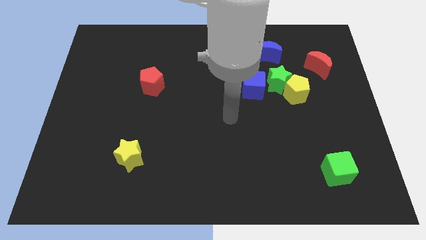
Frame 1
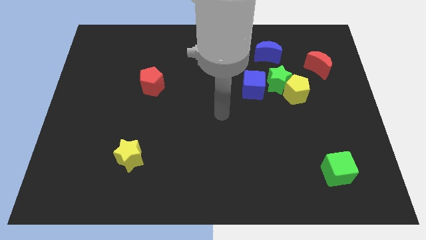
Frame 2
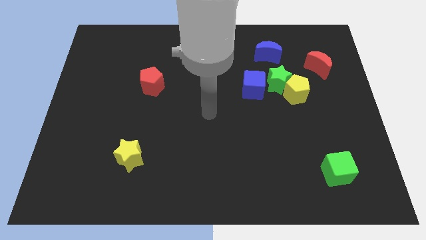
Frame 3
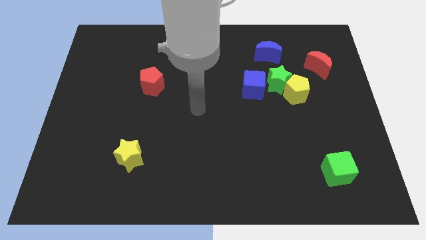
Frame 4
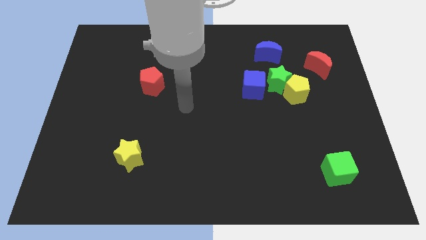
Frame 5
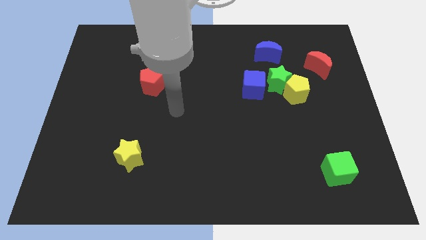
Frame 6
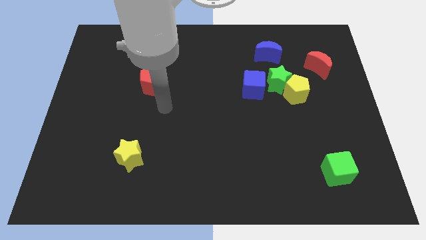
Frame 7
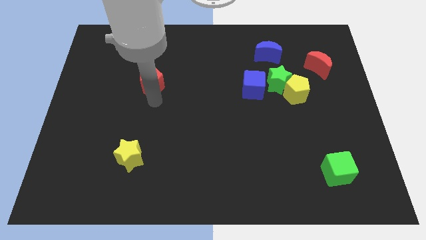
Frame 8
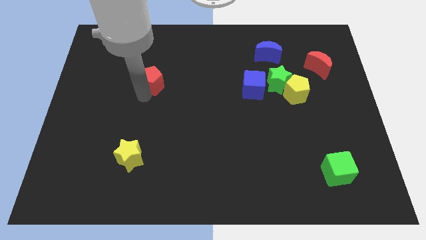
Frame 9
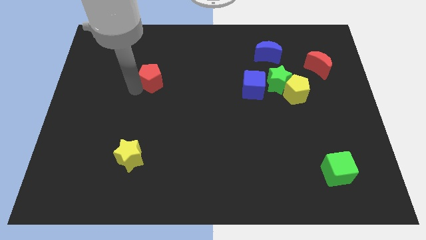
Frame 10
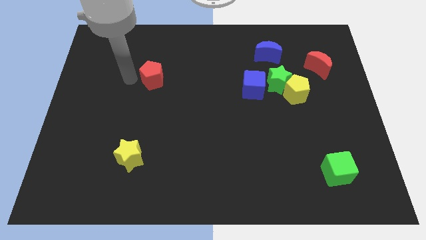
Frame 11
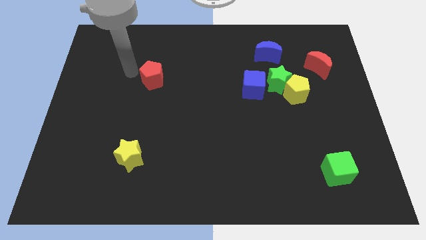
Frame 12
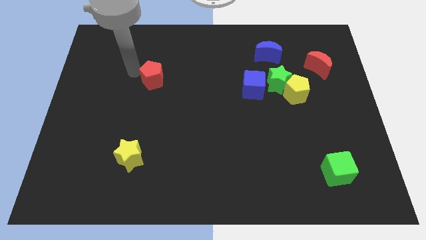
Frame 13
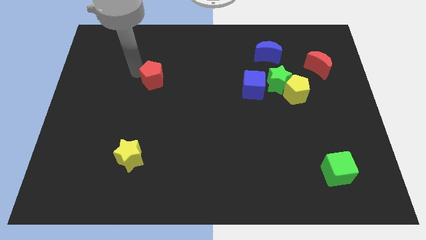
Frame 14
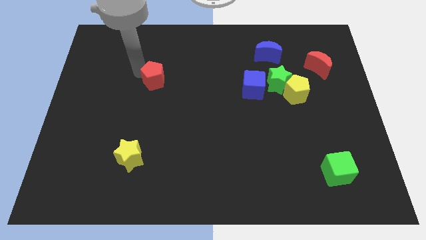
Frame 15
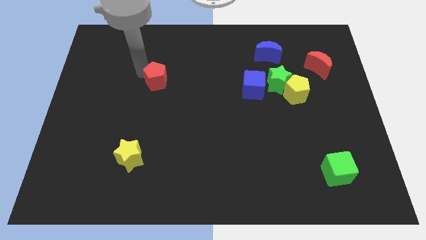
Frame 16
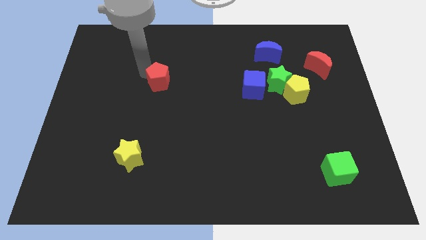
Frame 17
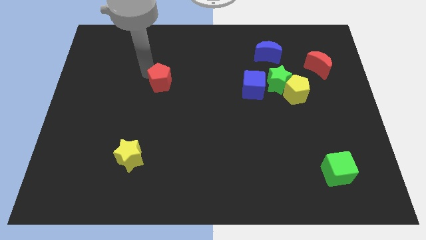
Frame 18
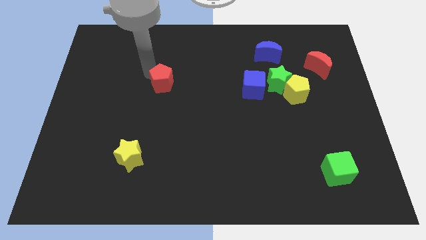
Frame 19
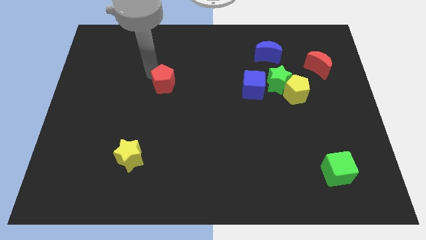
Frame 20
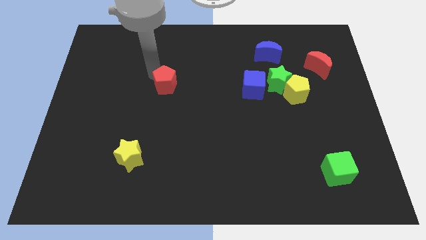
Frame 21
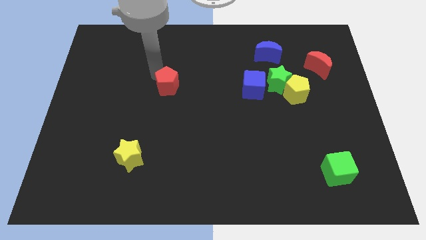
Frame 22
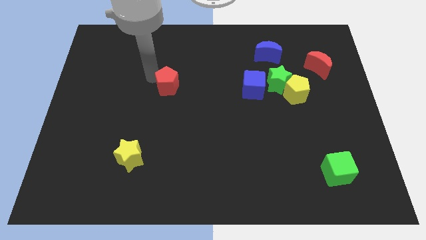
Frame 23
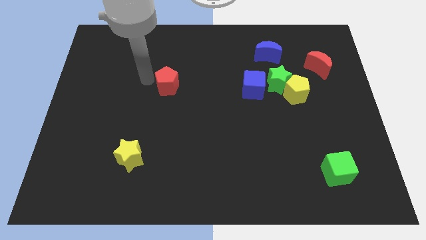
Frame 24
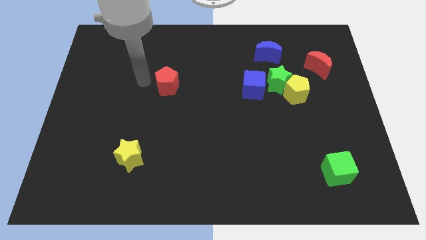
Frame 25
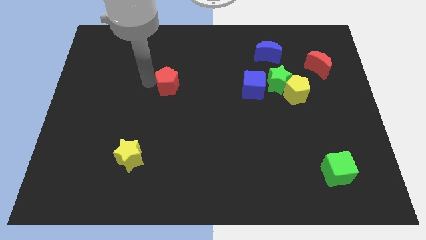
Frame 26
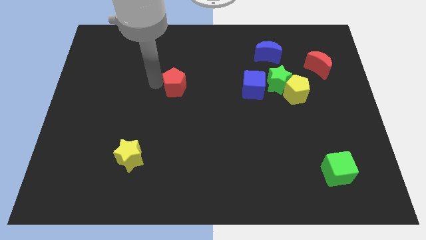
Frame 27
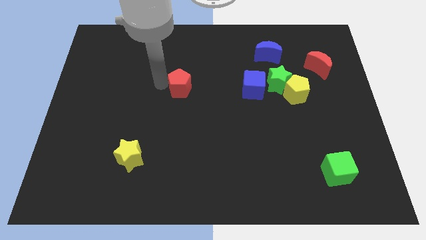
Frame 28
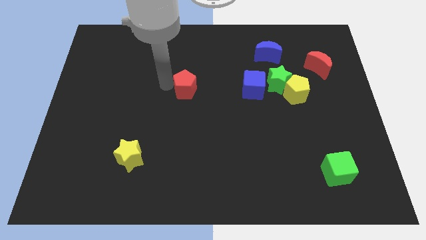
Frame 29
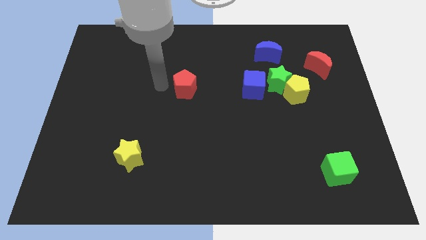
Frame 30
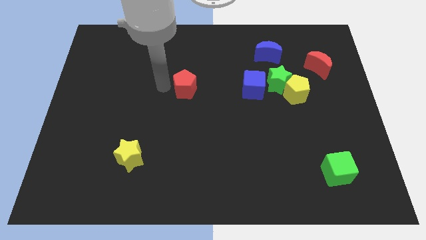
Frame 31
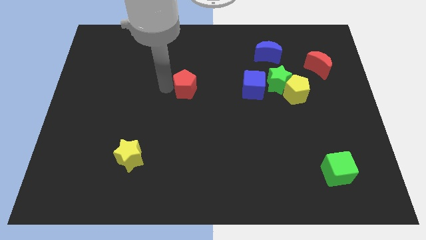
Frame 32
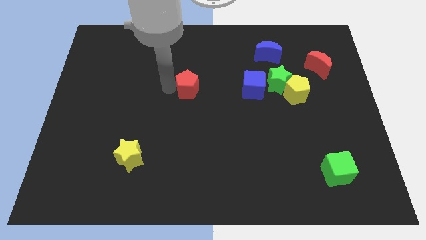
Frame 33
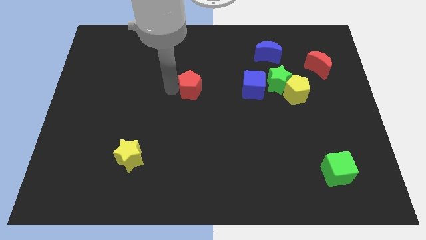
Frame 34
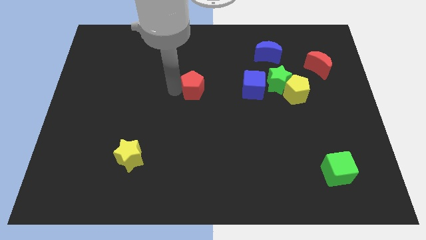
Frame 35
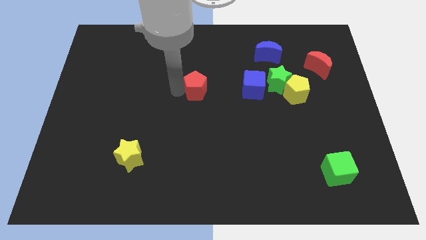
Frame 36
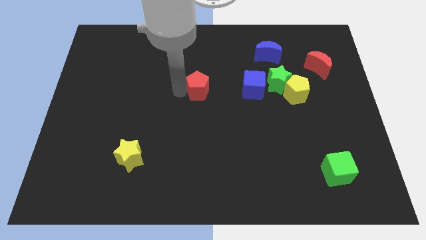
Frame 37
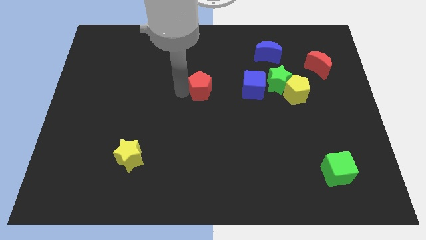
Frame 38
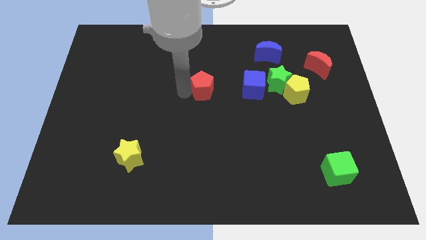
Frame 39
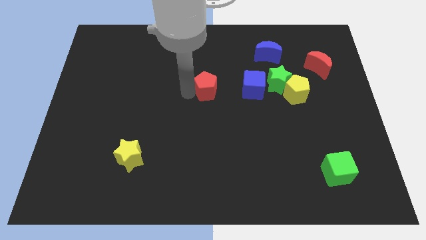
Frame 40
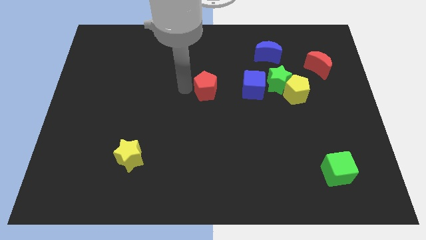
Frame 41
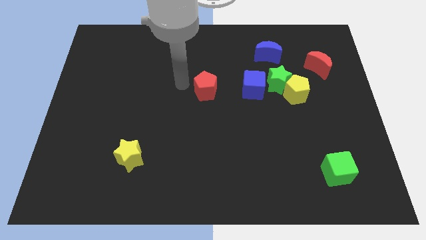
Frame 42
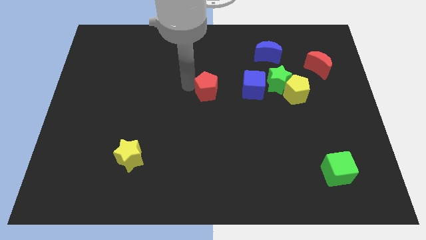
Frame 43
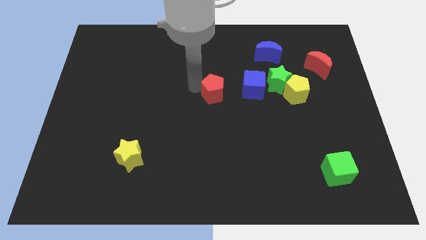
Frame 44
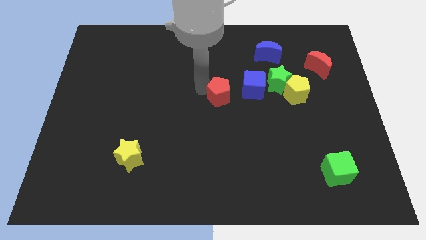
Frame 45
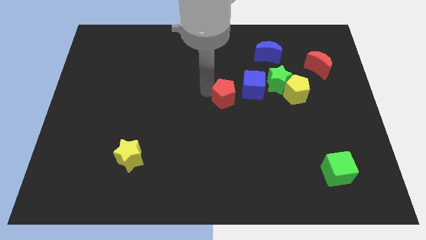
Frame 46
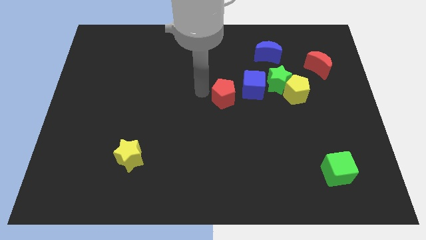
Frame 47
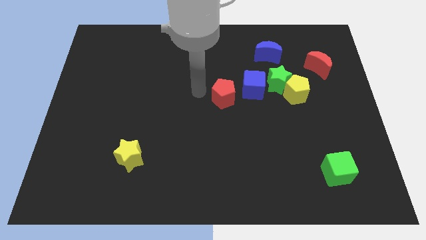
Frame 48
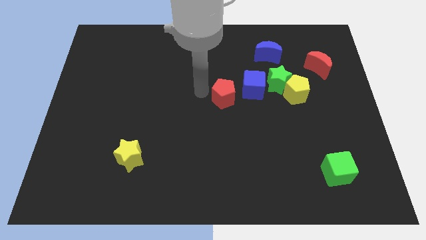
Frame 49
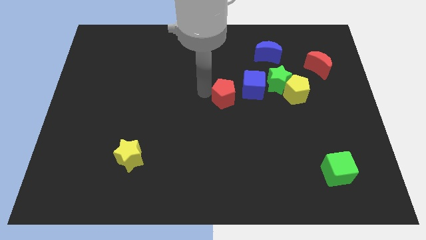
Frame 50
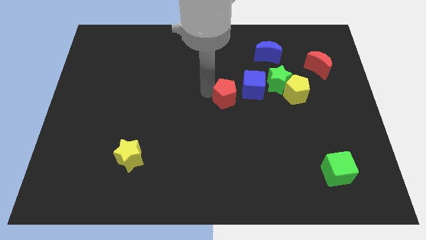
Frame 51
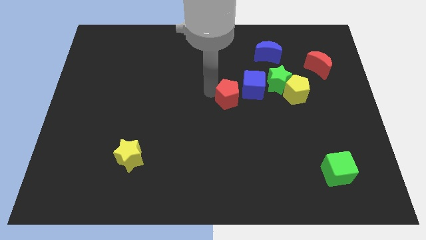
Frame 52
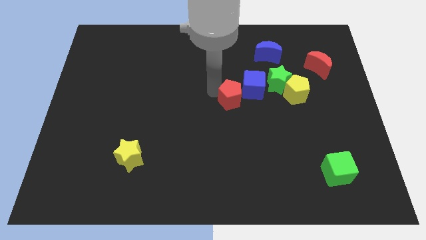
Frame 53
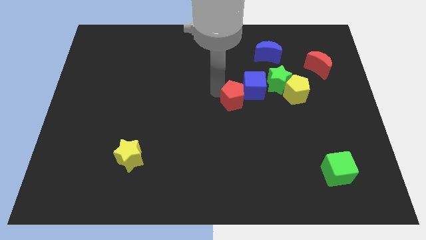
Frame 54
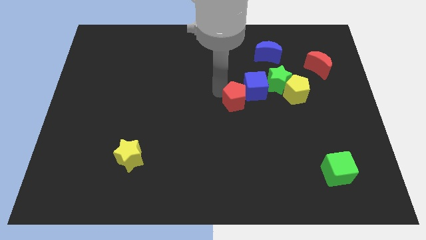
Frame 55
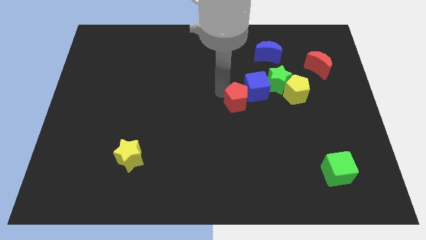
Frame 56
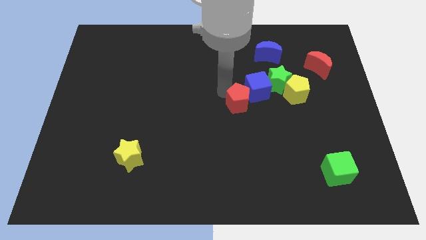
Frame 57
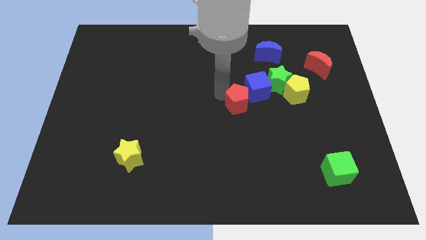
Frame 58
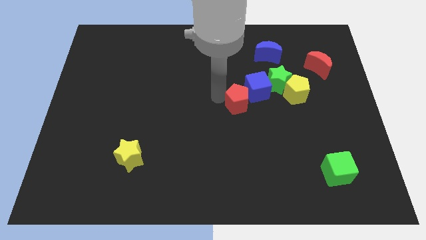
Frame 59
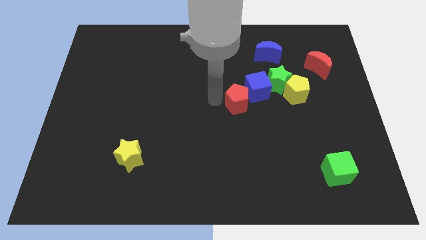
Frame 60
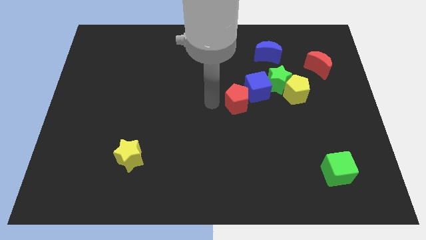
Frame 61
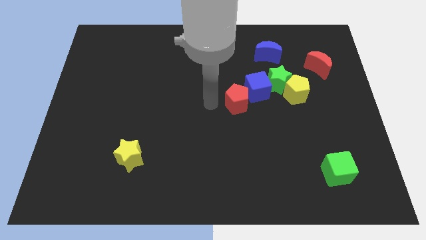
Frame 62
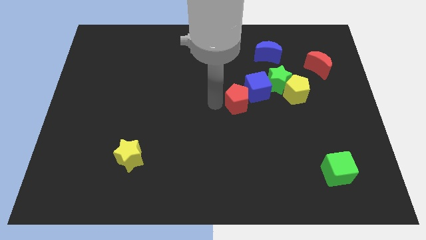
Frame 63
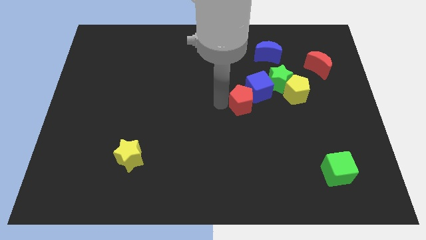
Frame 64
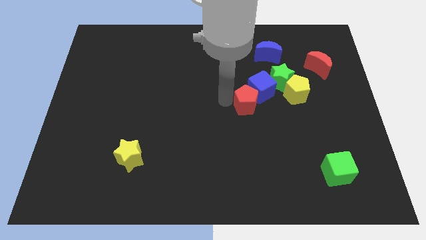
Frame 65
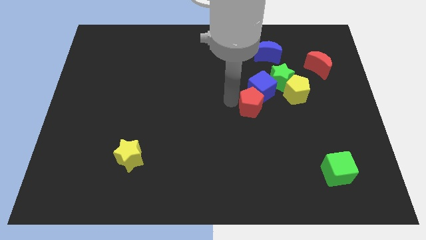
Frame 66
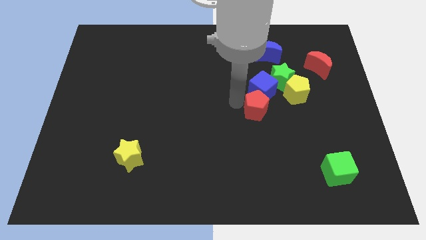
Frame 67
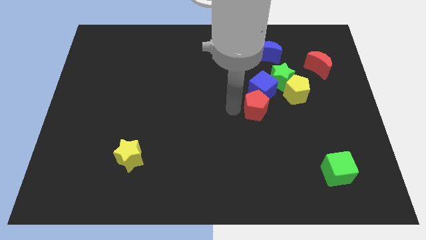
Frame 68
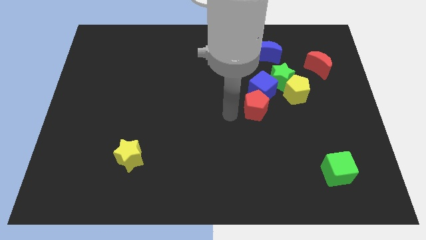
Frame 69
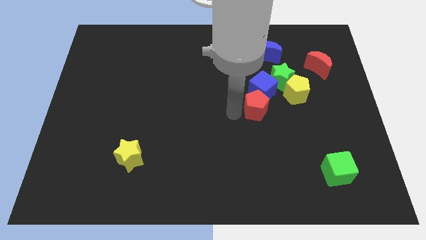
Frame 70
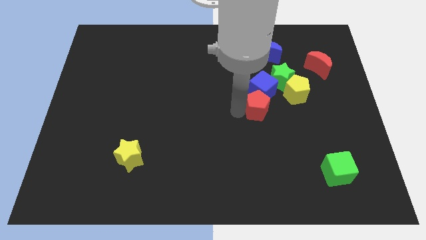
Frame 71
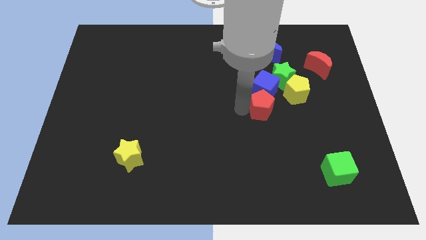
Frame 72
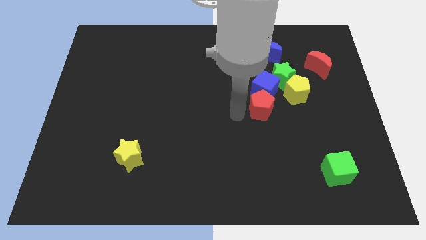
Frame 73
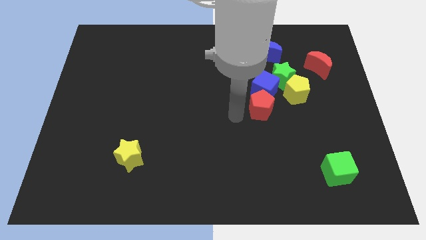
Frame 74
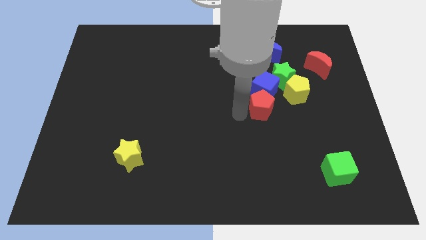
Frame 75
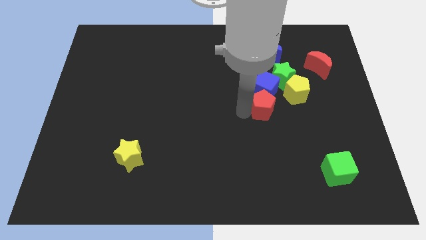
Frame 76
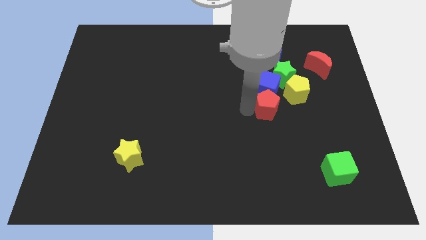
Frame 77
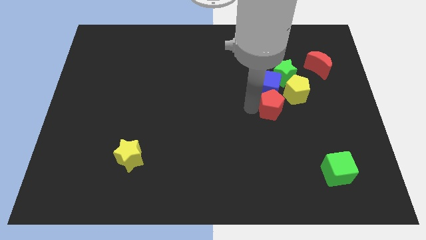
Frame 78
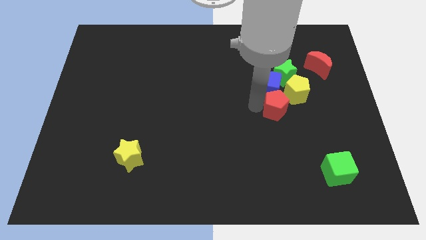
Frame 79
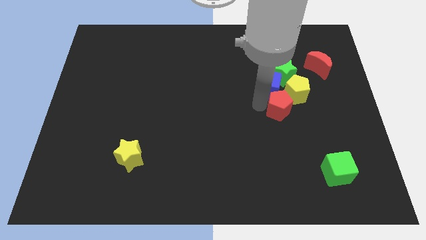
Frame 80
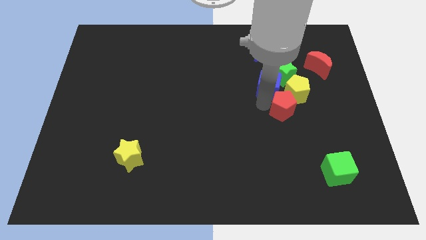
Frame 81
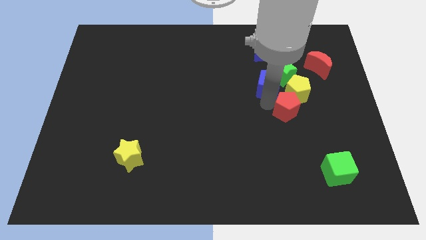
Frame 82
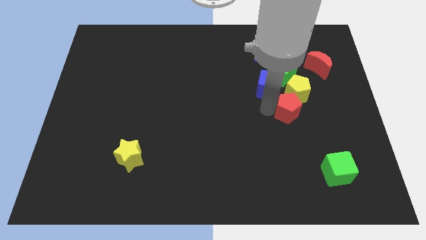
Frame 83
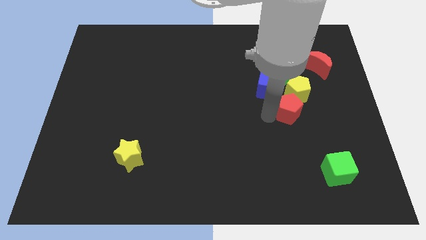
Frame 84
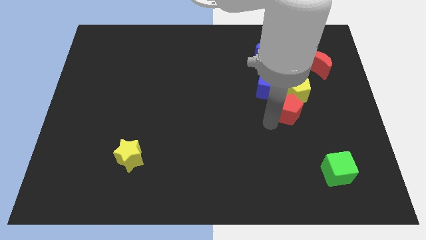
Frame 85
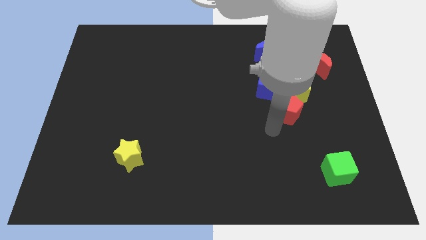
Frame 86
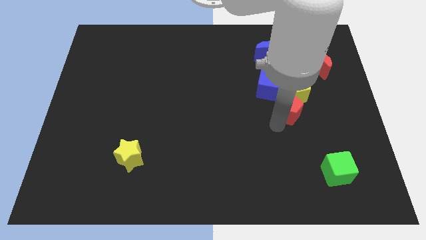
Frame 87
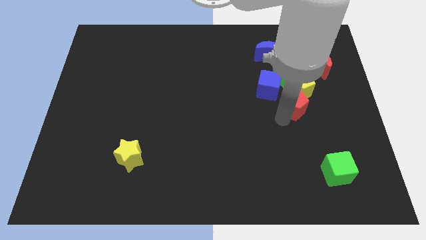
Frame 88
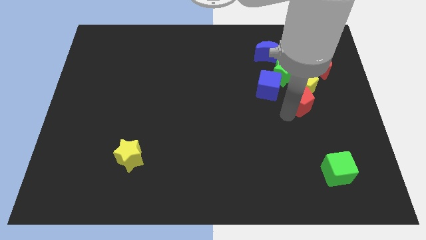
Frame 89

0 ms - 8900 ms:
push the red pentagon to the bottom right side of the green star
